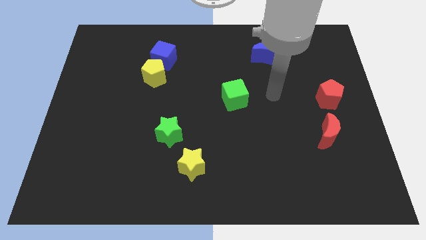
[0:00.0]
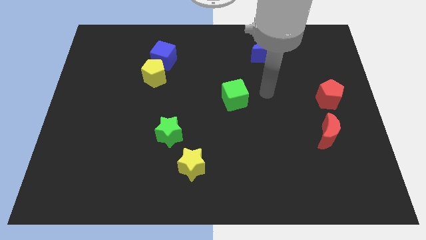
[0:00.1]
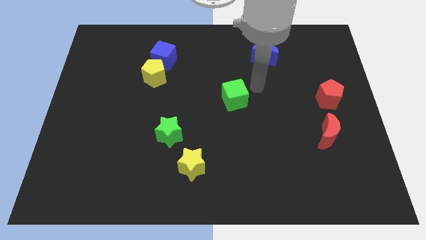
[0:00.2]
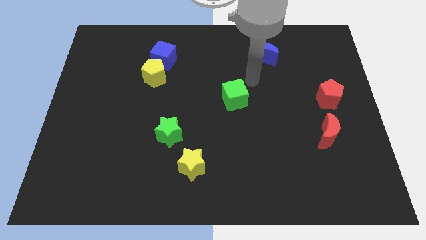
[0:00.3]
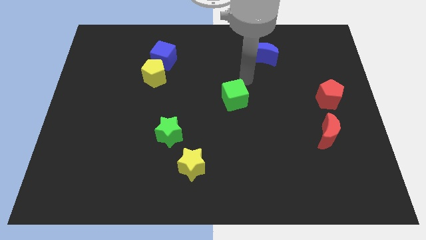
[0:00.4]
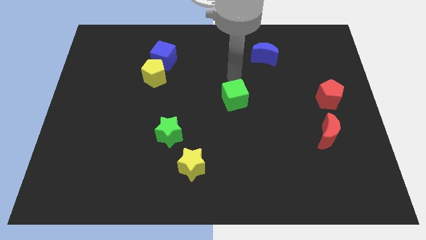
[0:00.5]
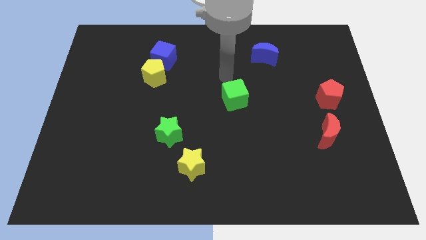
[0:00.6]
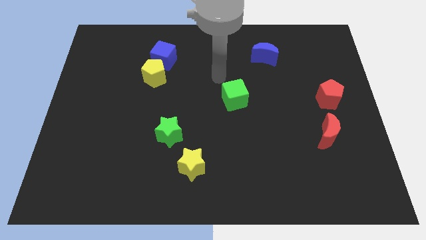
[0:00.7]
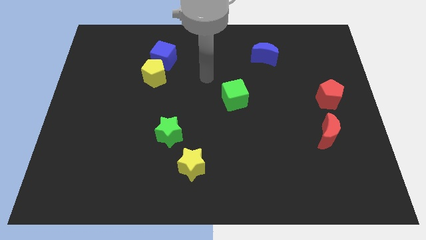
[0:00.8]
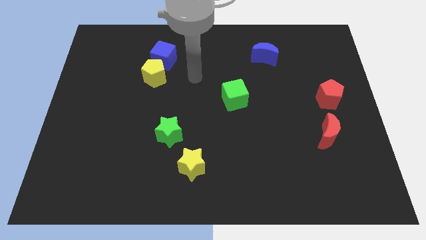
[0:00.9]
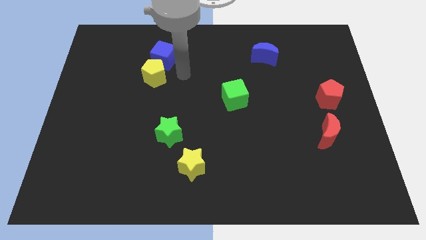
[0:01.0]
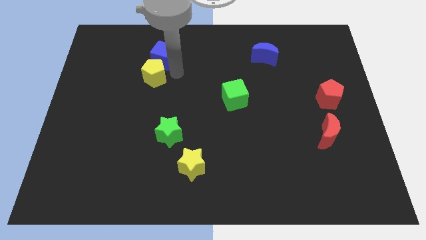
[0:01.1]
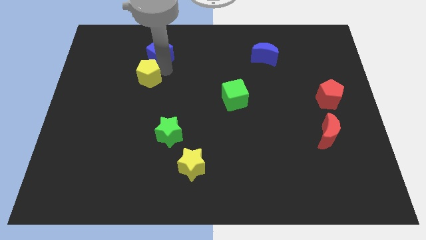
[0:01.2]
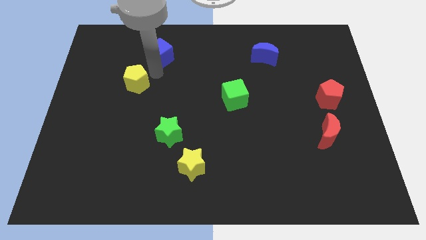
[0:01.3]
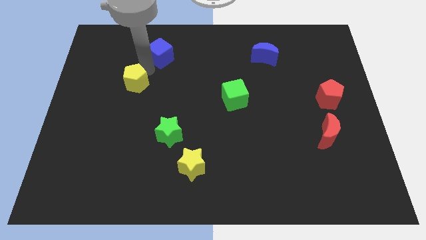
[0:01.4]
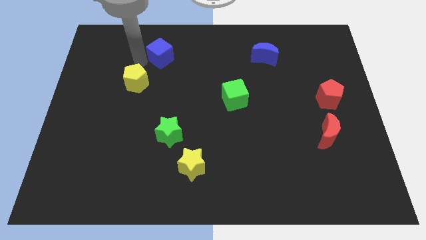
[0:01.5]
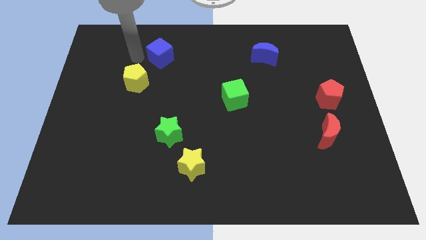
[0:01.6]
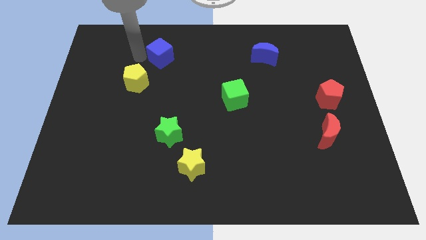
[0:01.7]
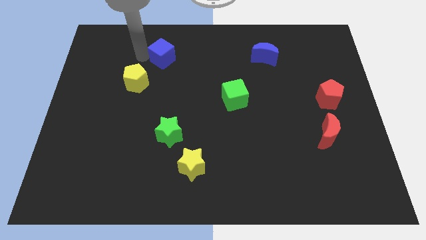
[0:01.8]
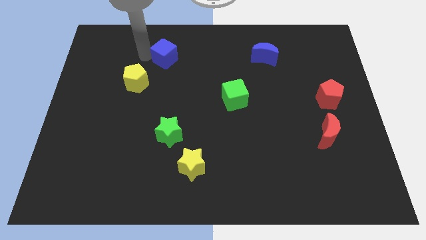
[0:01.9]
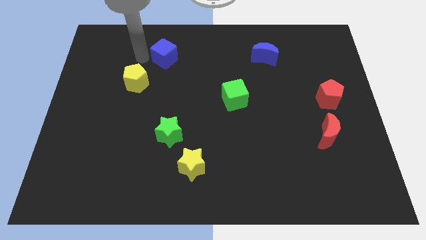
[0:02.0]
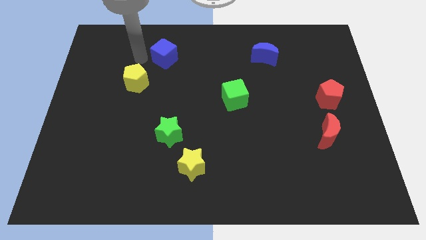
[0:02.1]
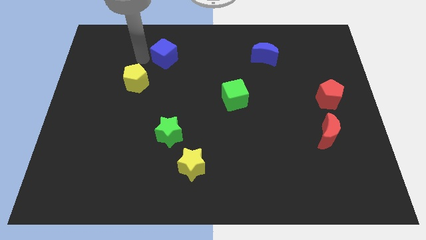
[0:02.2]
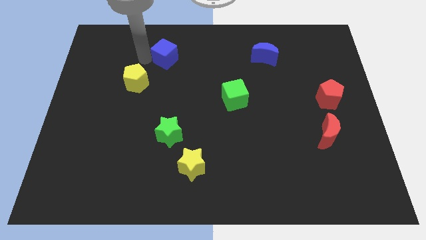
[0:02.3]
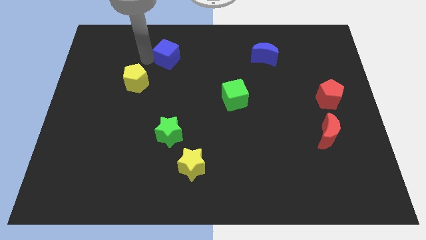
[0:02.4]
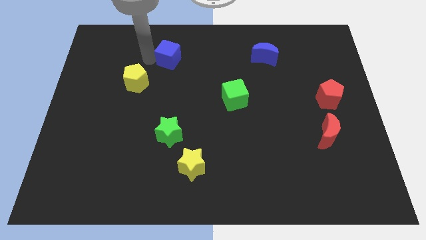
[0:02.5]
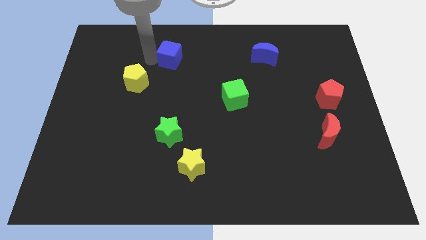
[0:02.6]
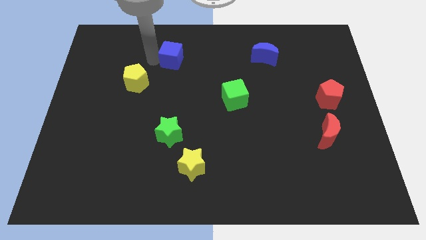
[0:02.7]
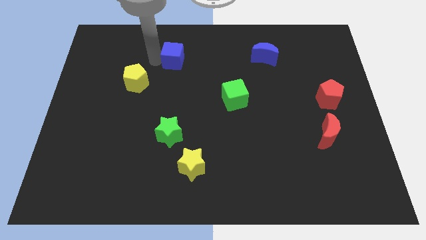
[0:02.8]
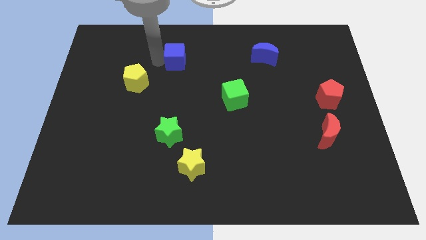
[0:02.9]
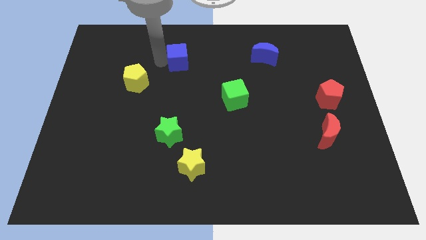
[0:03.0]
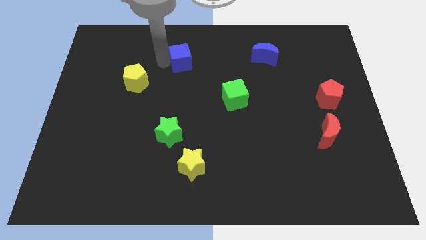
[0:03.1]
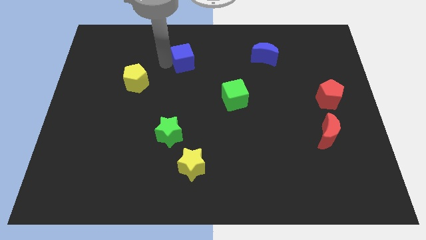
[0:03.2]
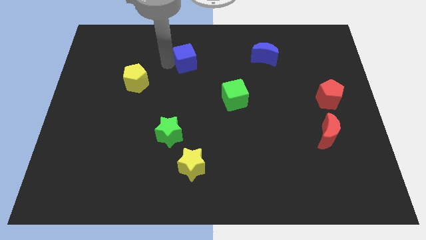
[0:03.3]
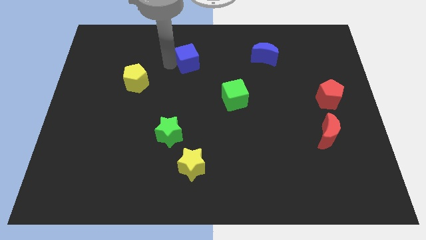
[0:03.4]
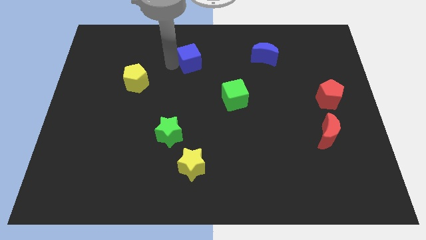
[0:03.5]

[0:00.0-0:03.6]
slightly move the blue cube right

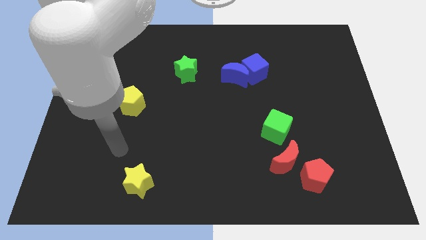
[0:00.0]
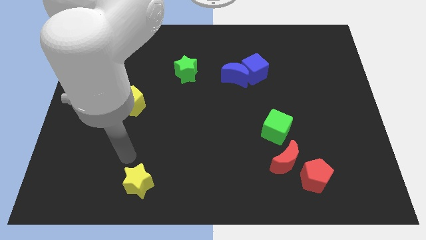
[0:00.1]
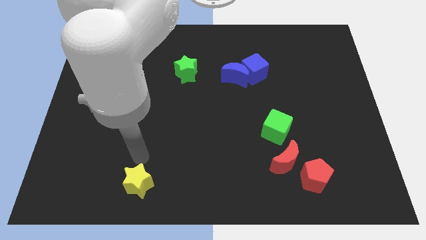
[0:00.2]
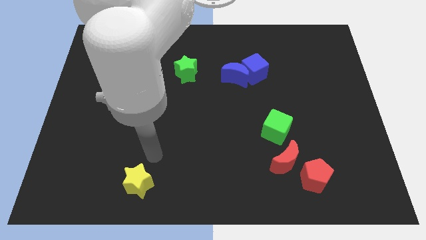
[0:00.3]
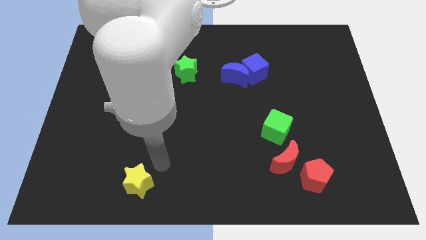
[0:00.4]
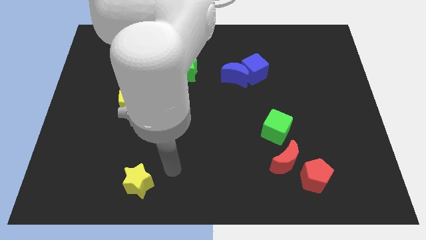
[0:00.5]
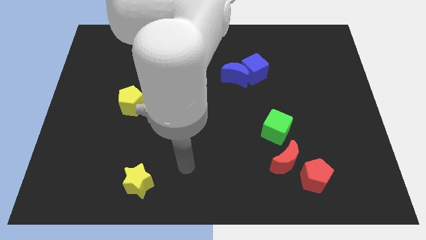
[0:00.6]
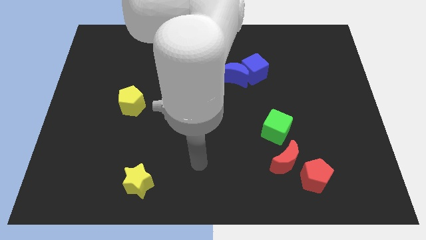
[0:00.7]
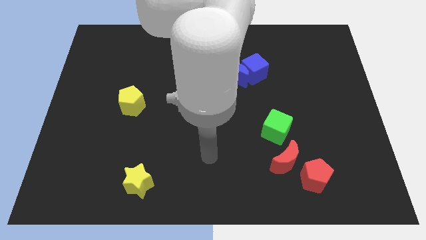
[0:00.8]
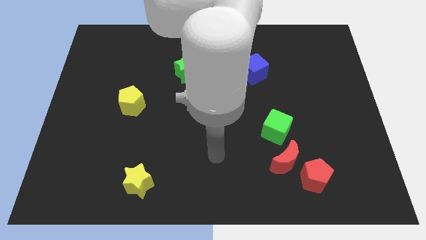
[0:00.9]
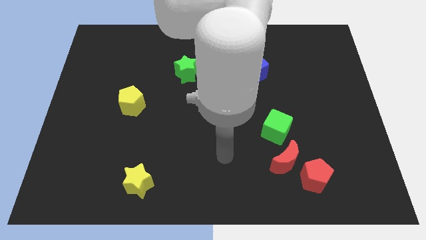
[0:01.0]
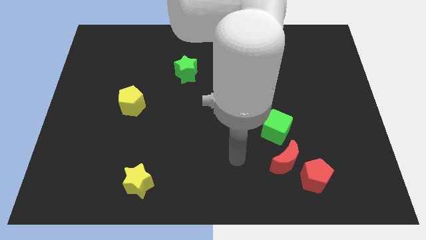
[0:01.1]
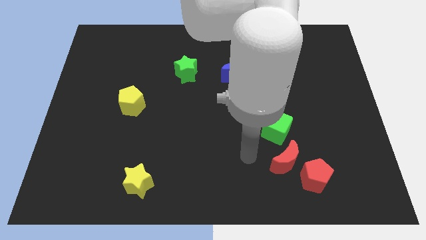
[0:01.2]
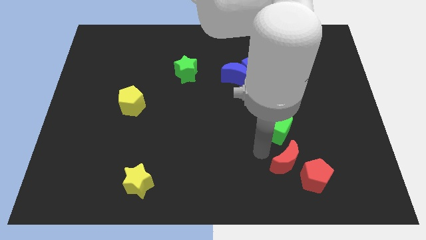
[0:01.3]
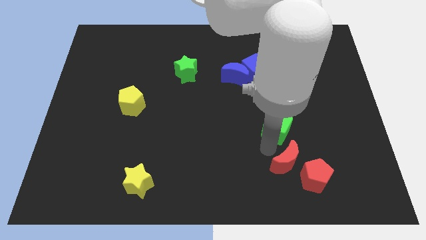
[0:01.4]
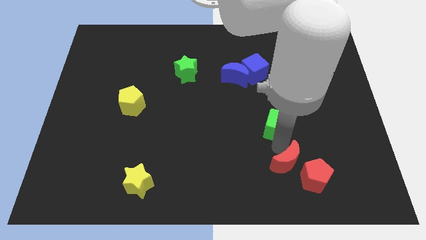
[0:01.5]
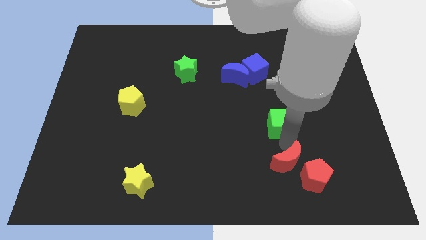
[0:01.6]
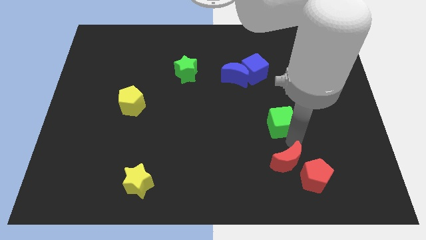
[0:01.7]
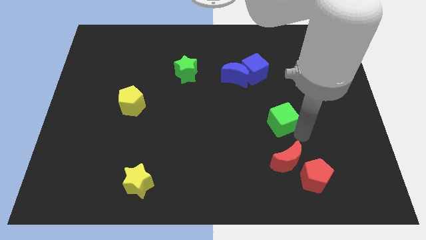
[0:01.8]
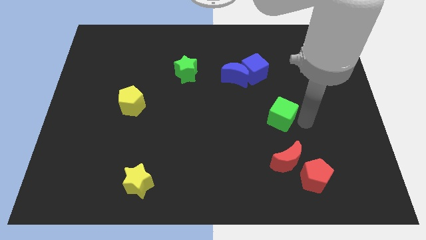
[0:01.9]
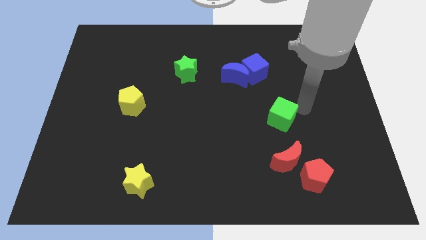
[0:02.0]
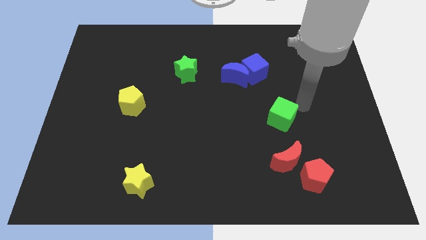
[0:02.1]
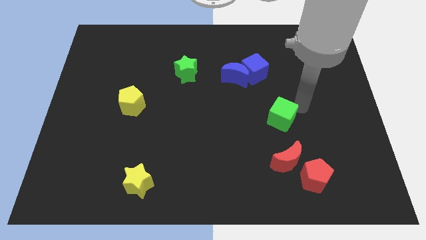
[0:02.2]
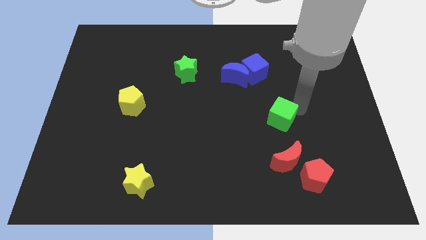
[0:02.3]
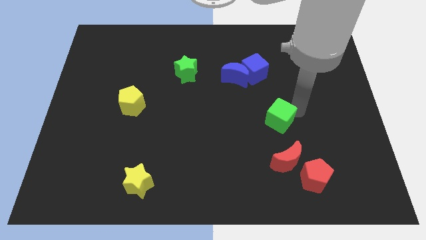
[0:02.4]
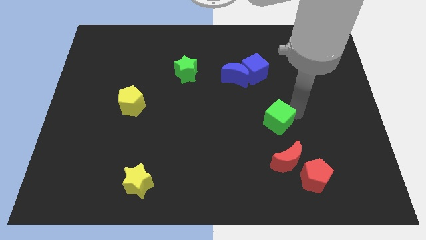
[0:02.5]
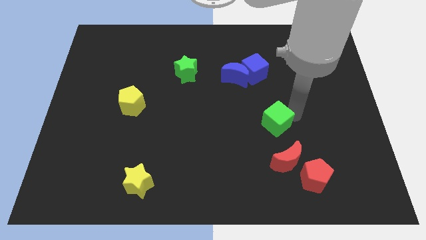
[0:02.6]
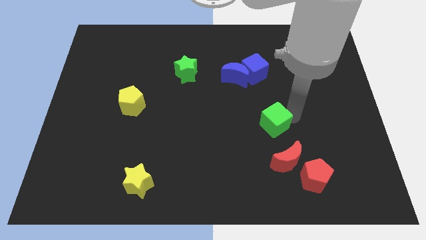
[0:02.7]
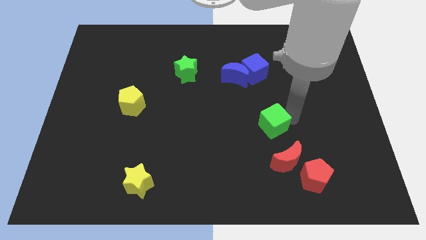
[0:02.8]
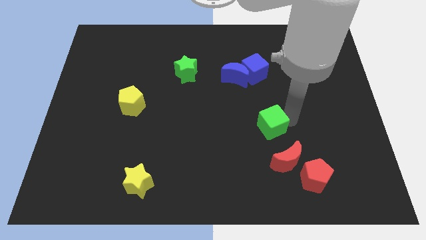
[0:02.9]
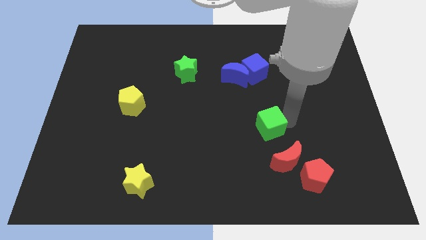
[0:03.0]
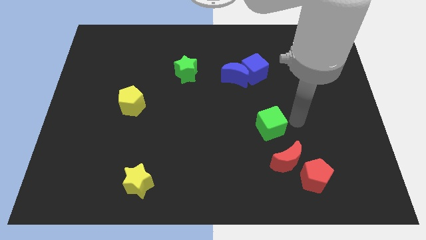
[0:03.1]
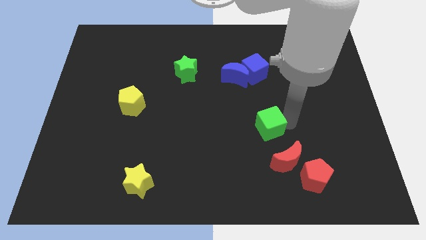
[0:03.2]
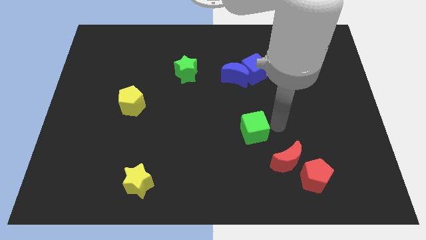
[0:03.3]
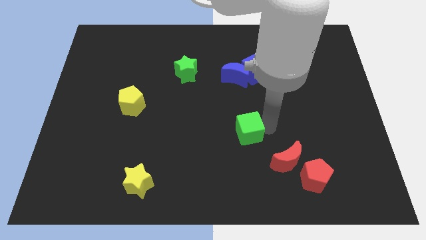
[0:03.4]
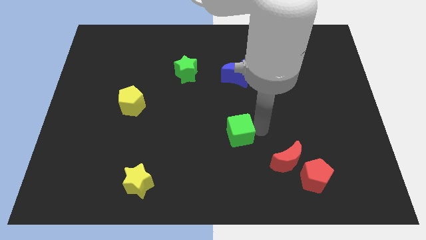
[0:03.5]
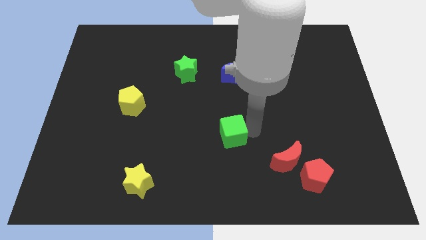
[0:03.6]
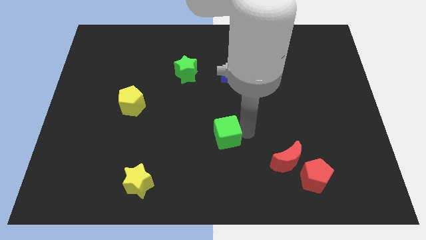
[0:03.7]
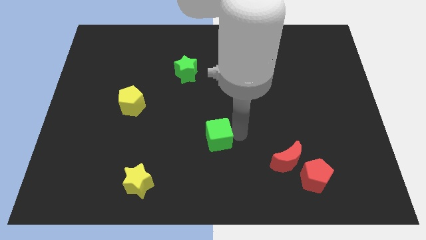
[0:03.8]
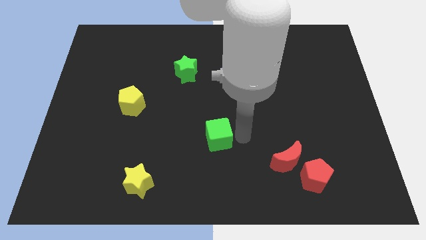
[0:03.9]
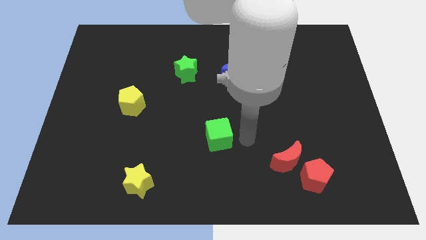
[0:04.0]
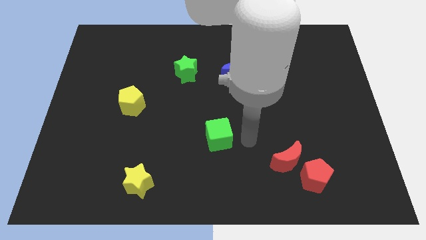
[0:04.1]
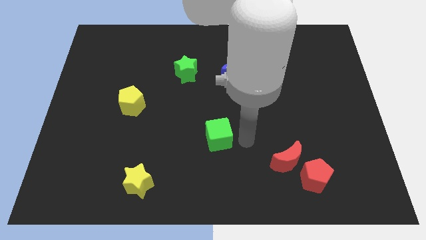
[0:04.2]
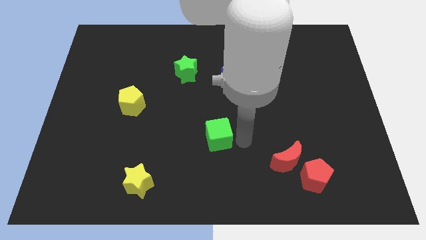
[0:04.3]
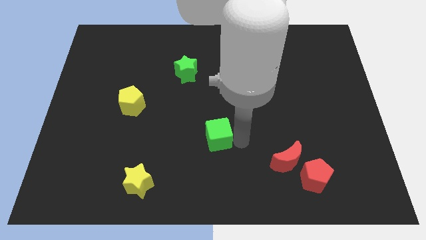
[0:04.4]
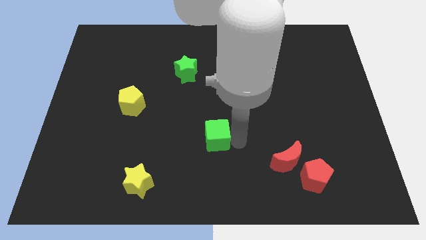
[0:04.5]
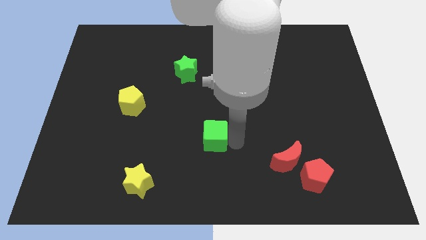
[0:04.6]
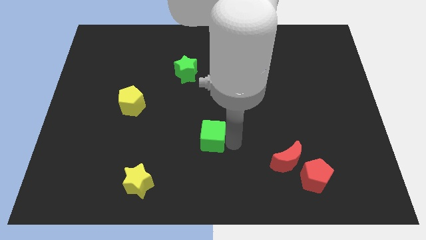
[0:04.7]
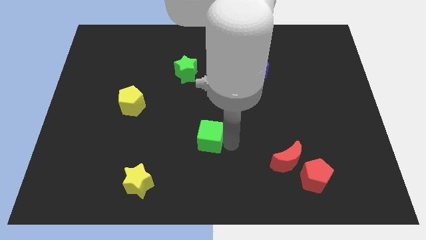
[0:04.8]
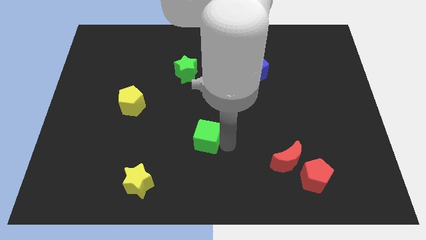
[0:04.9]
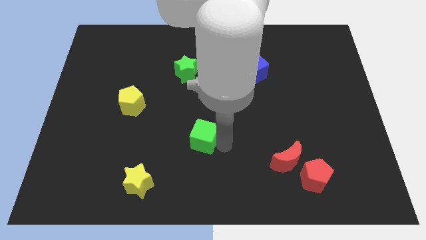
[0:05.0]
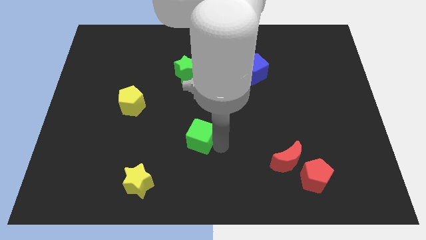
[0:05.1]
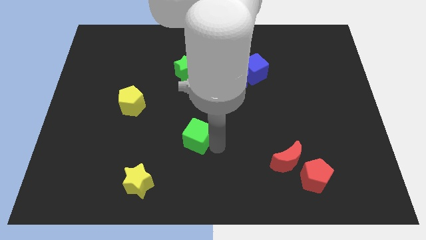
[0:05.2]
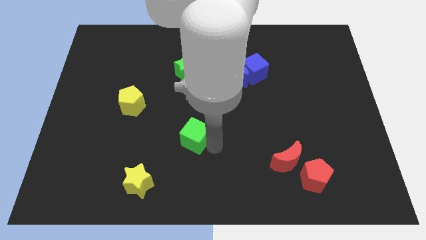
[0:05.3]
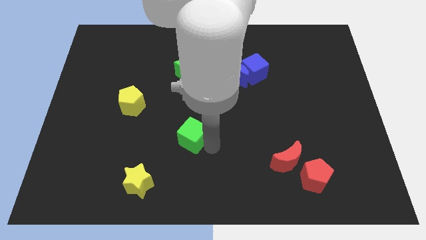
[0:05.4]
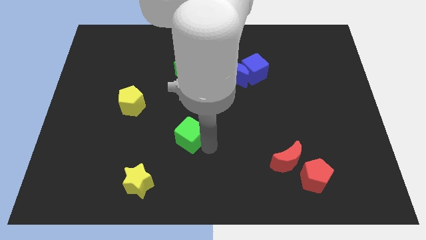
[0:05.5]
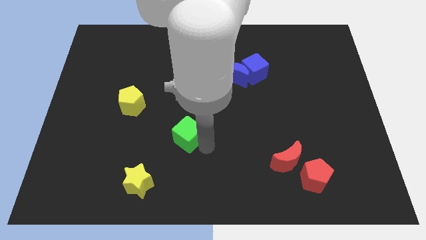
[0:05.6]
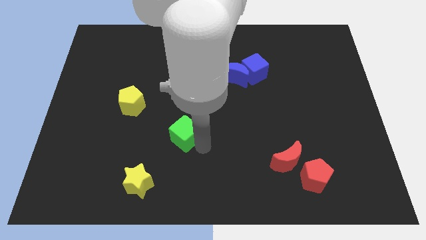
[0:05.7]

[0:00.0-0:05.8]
push the green cube to the left
